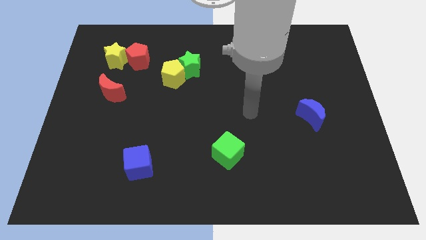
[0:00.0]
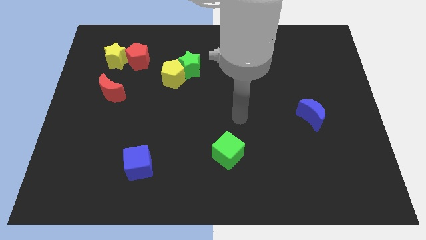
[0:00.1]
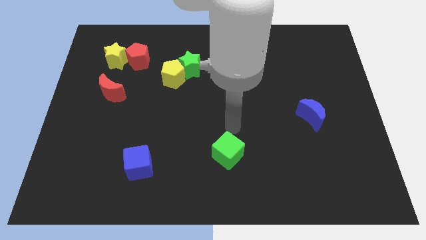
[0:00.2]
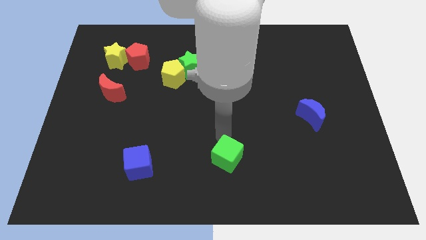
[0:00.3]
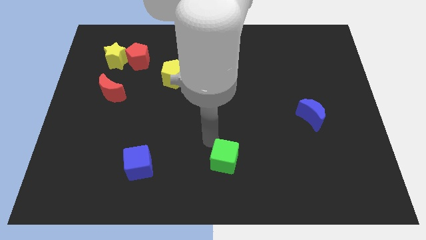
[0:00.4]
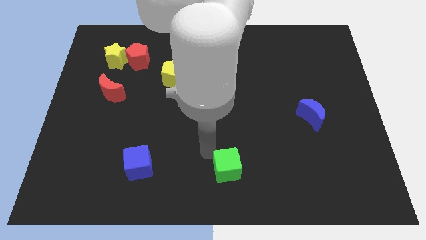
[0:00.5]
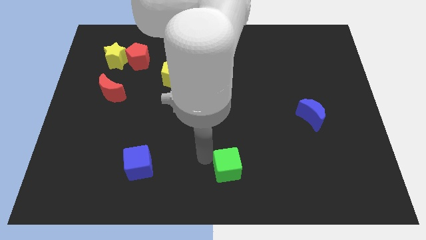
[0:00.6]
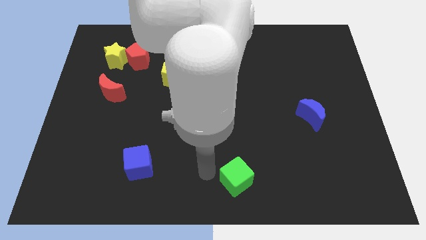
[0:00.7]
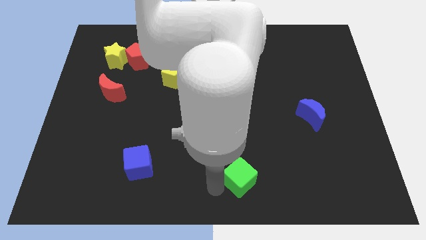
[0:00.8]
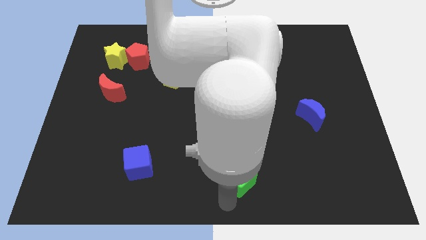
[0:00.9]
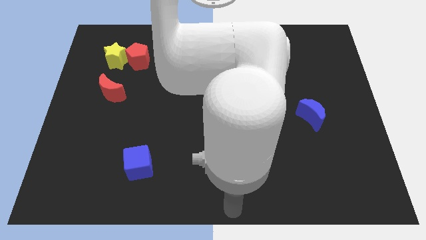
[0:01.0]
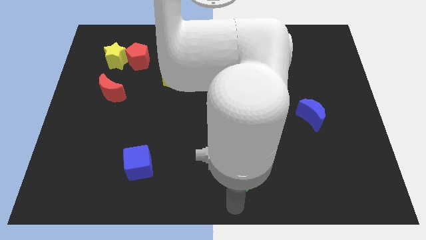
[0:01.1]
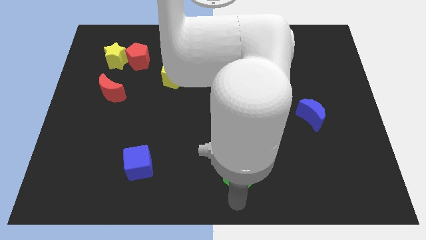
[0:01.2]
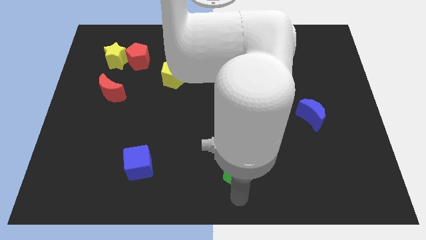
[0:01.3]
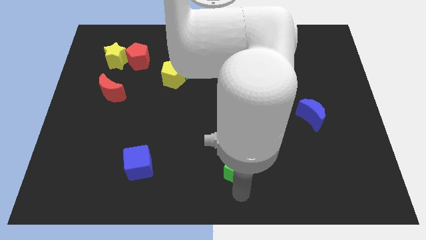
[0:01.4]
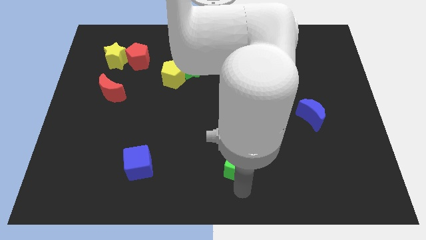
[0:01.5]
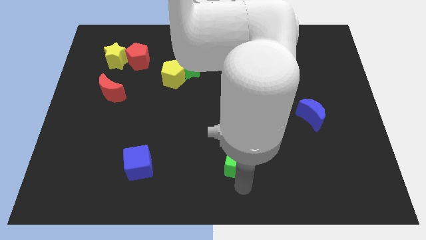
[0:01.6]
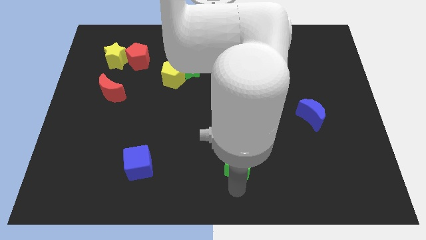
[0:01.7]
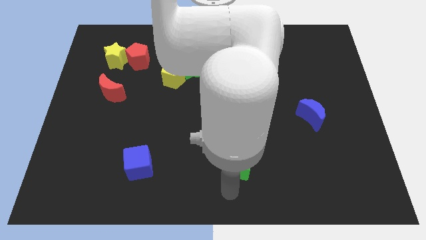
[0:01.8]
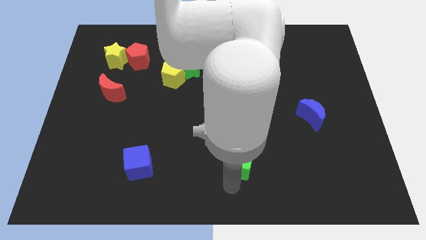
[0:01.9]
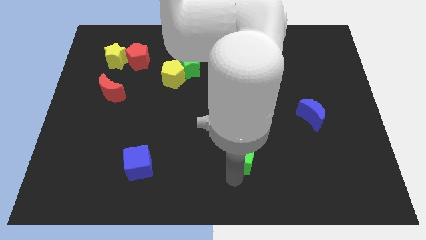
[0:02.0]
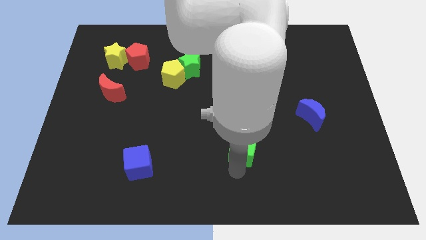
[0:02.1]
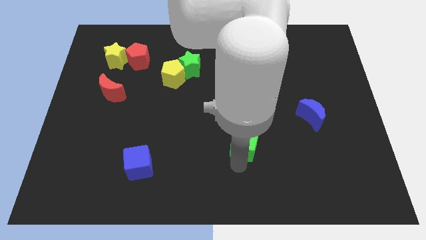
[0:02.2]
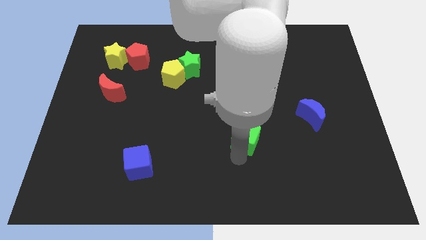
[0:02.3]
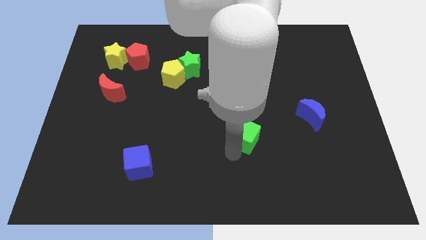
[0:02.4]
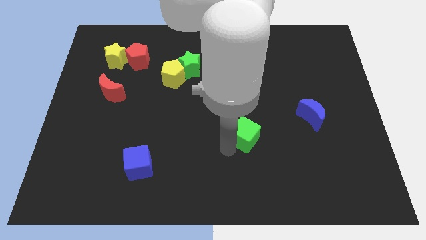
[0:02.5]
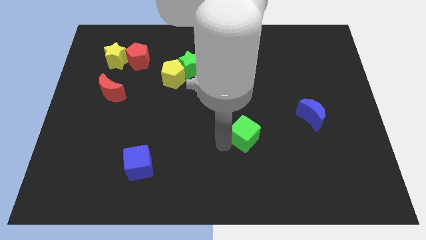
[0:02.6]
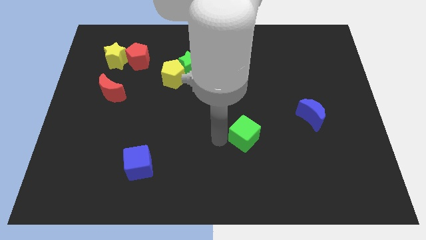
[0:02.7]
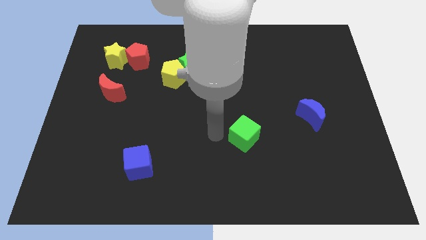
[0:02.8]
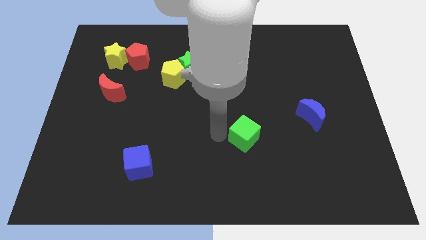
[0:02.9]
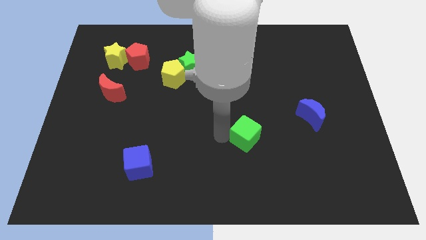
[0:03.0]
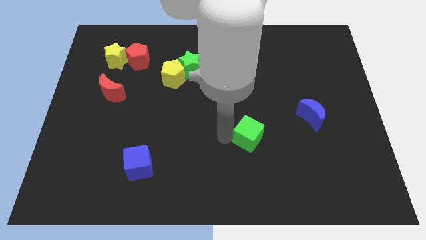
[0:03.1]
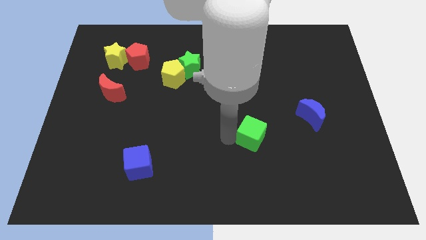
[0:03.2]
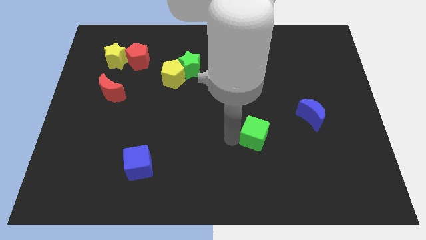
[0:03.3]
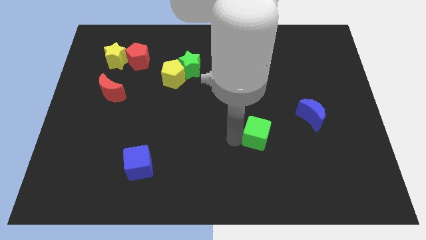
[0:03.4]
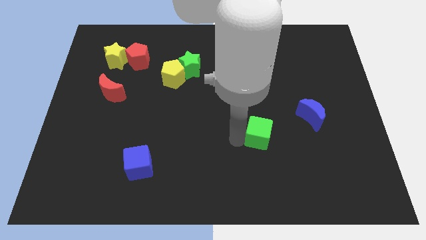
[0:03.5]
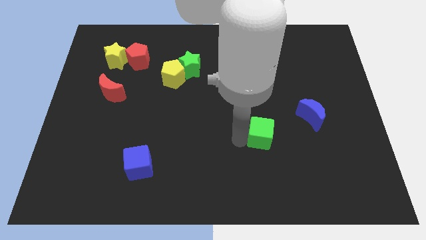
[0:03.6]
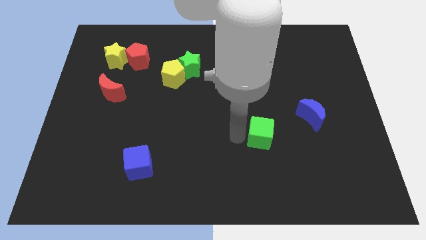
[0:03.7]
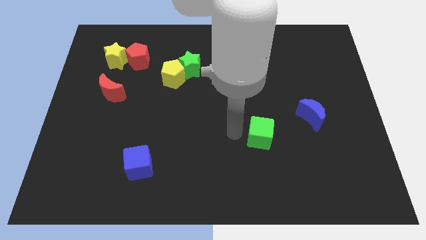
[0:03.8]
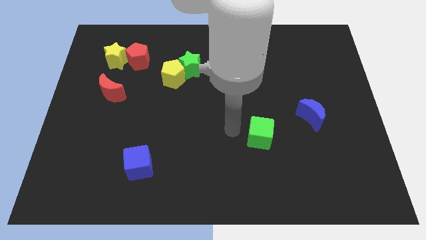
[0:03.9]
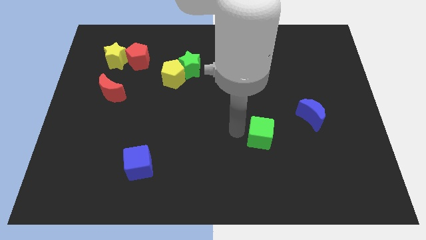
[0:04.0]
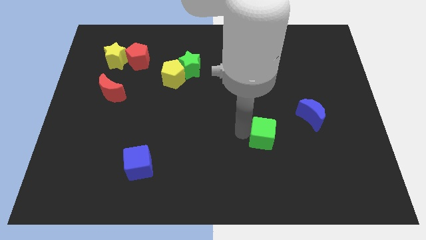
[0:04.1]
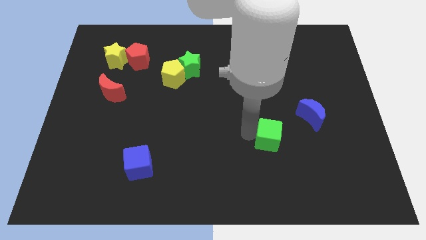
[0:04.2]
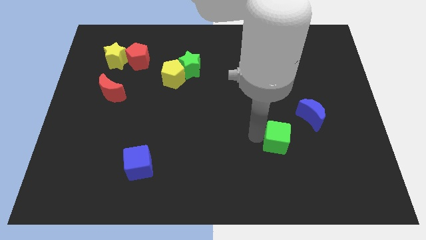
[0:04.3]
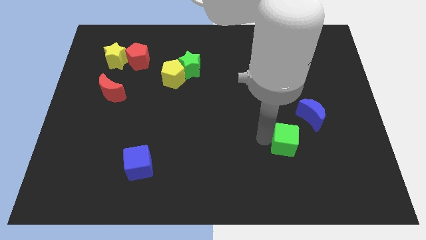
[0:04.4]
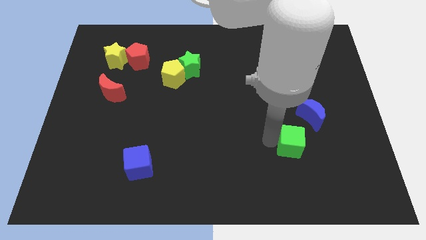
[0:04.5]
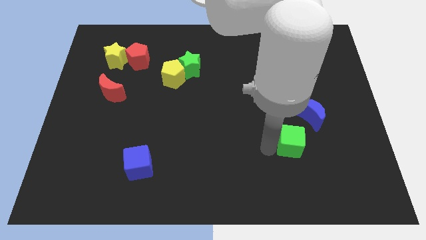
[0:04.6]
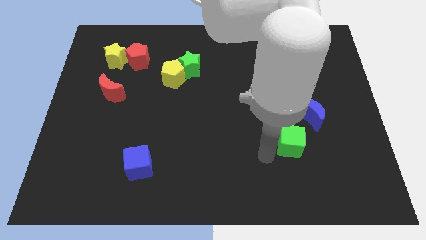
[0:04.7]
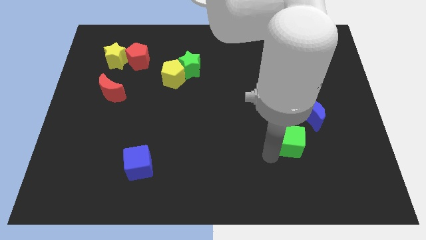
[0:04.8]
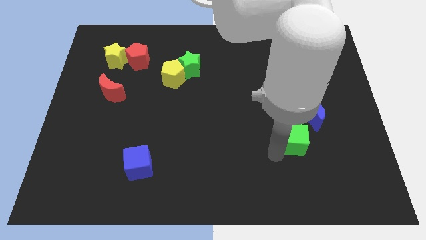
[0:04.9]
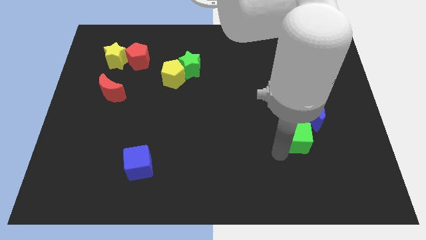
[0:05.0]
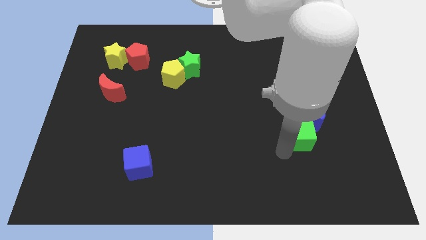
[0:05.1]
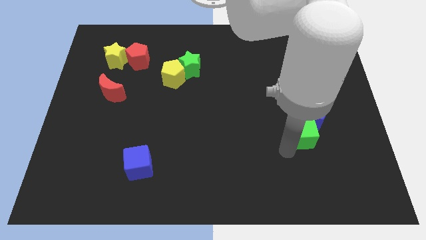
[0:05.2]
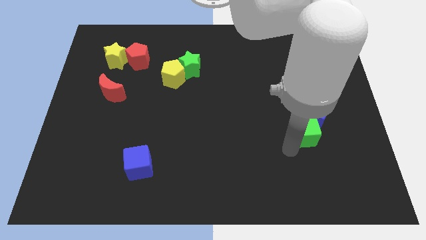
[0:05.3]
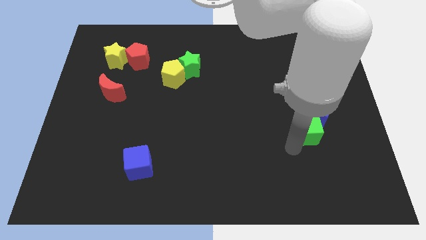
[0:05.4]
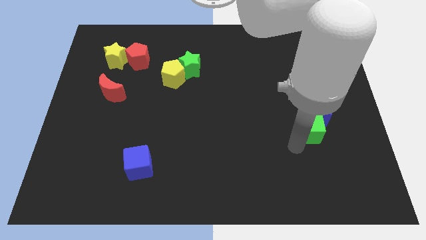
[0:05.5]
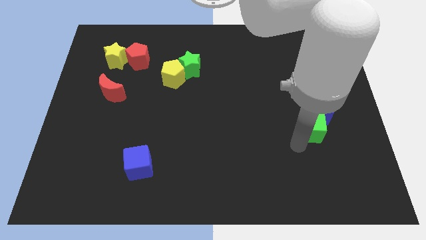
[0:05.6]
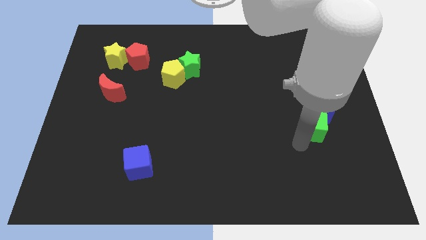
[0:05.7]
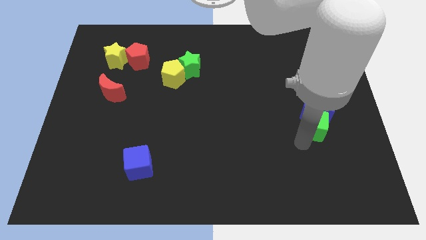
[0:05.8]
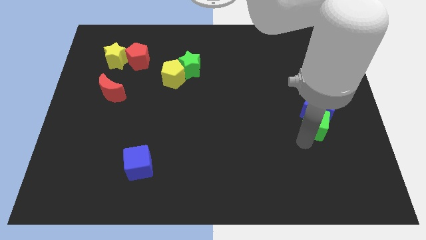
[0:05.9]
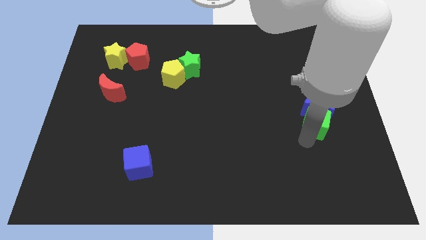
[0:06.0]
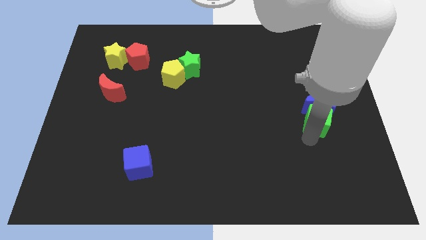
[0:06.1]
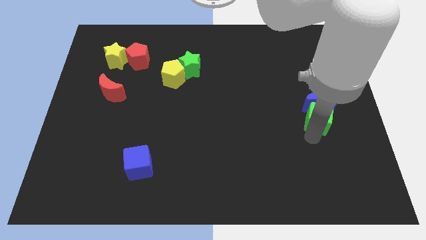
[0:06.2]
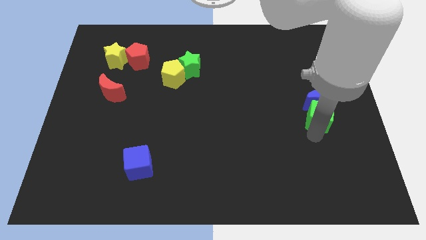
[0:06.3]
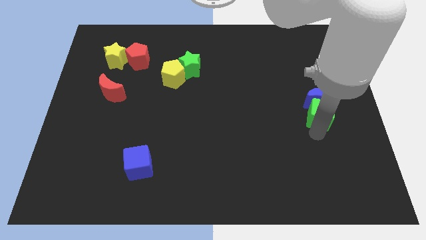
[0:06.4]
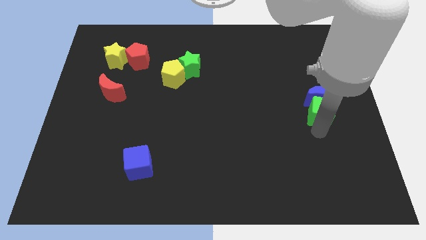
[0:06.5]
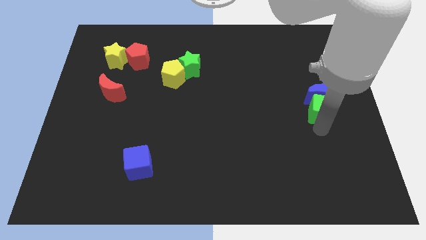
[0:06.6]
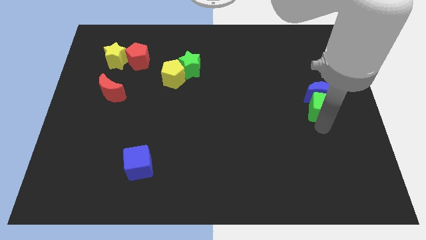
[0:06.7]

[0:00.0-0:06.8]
slide the green cube to the right side
